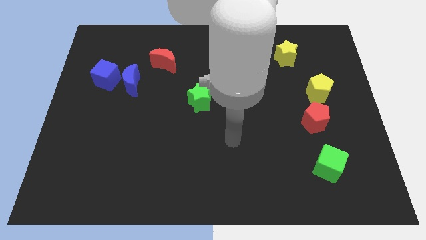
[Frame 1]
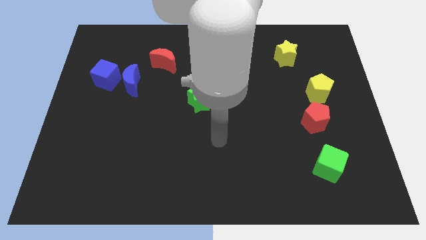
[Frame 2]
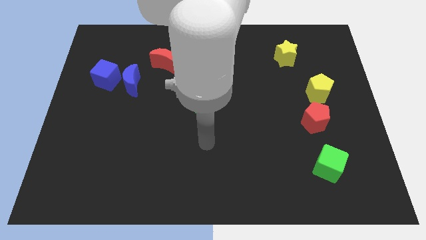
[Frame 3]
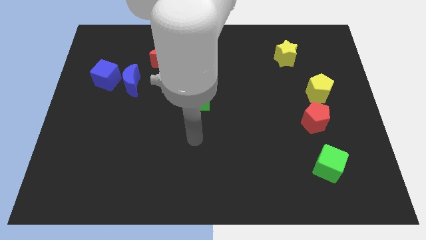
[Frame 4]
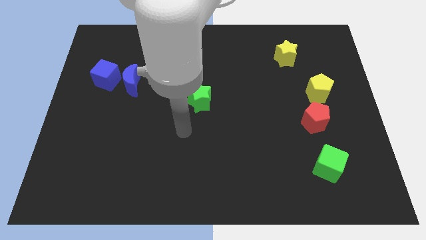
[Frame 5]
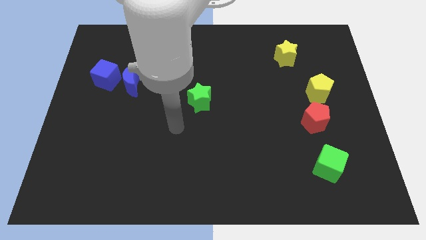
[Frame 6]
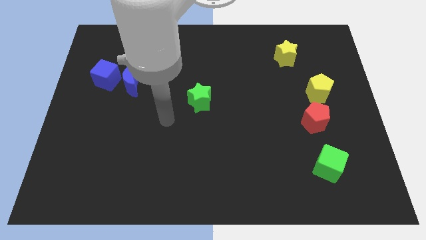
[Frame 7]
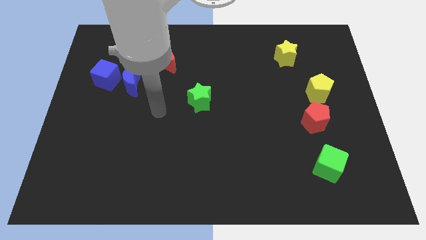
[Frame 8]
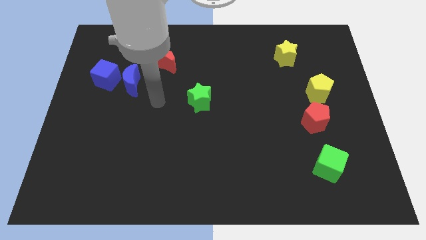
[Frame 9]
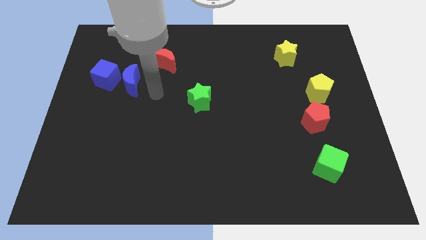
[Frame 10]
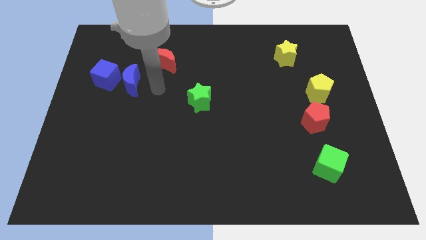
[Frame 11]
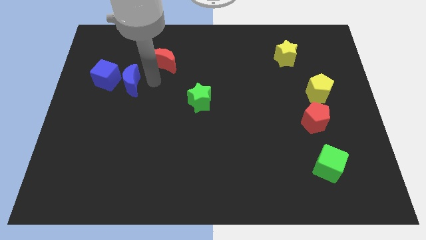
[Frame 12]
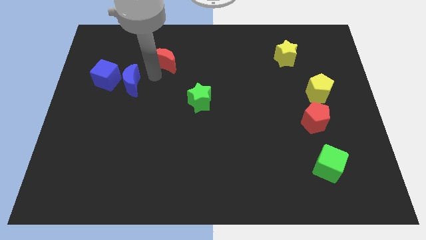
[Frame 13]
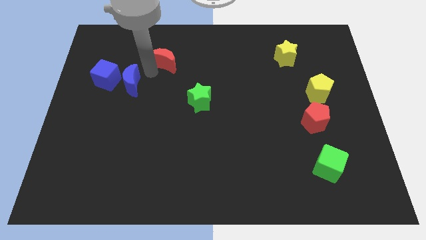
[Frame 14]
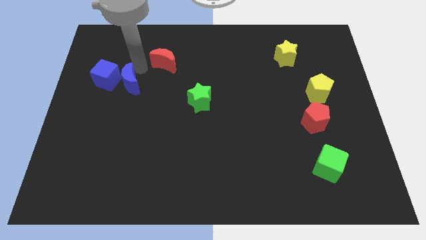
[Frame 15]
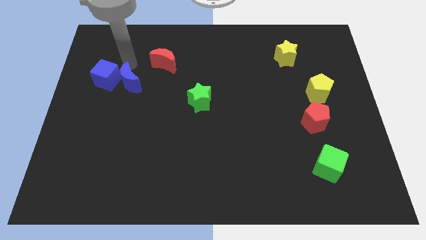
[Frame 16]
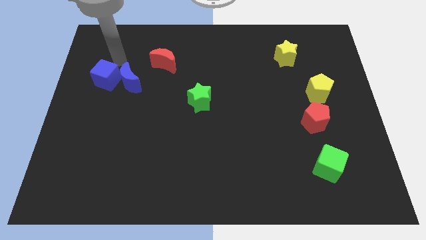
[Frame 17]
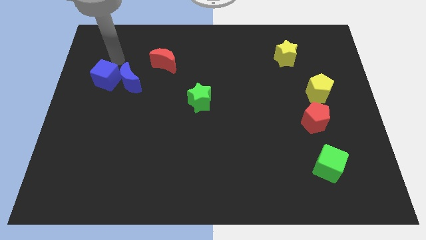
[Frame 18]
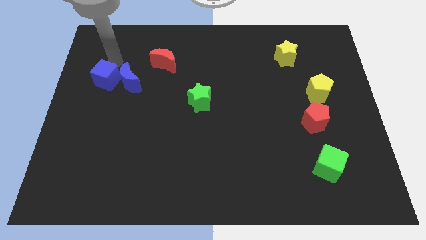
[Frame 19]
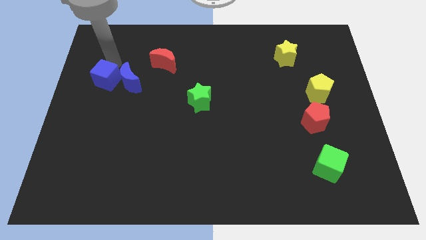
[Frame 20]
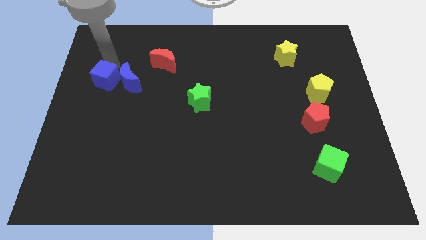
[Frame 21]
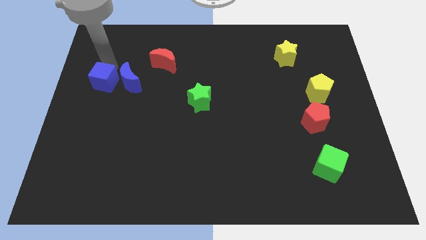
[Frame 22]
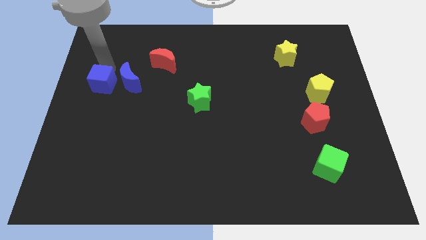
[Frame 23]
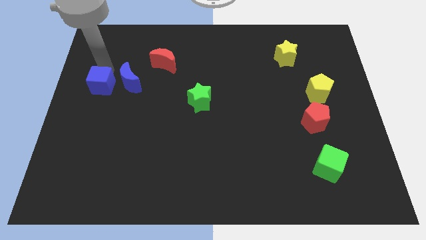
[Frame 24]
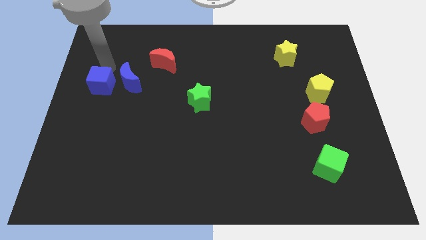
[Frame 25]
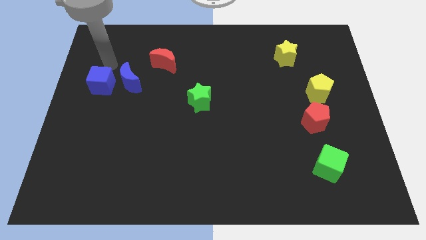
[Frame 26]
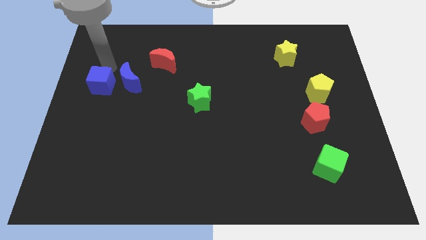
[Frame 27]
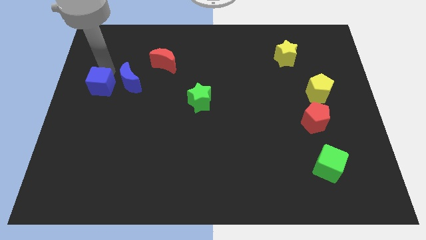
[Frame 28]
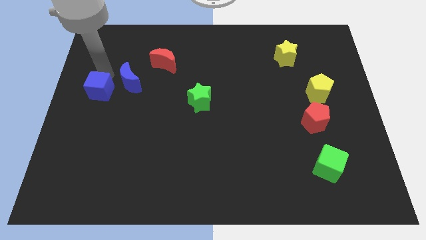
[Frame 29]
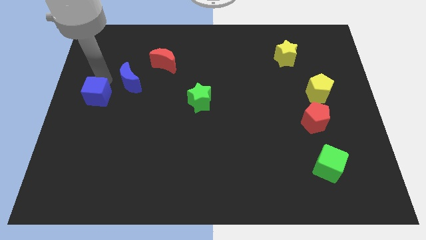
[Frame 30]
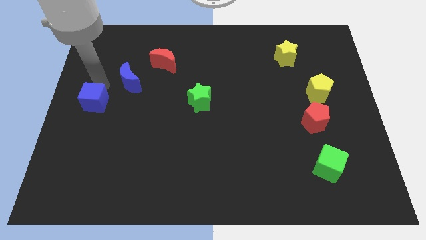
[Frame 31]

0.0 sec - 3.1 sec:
move the blue cube slightly down

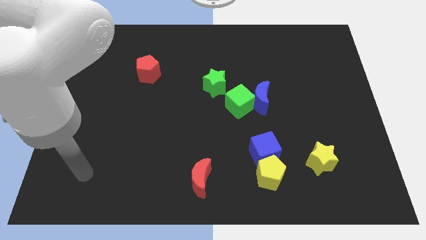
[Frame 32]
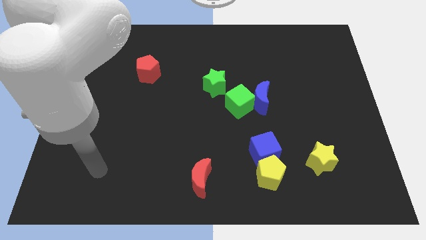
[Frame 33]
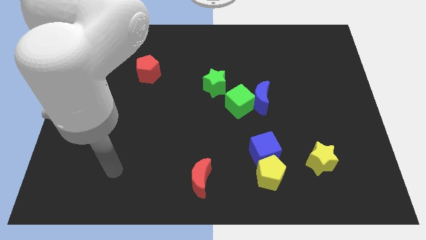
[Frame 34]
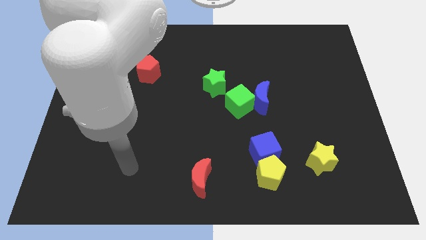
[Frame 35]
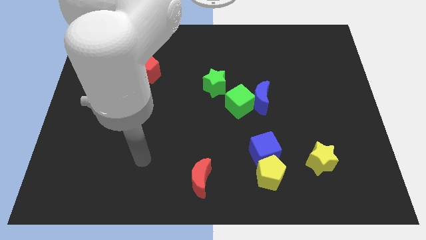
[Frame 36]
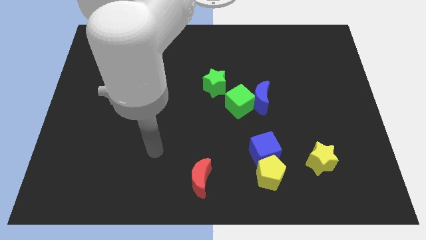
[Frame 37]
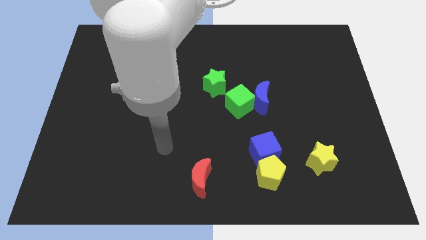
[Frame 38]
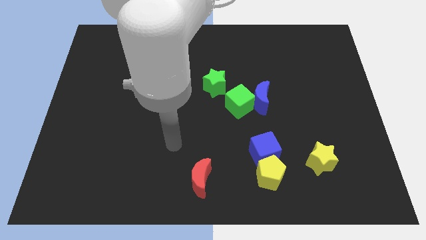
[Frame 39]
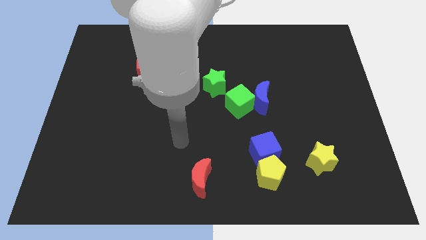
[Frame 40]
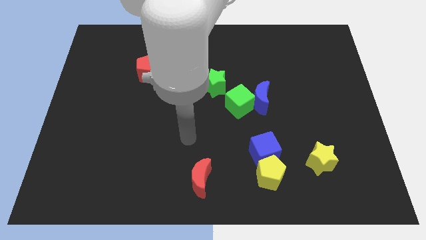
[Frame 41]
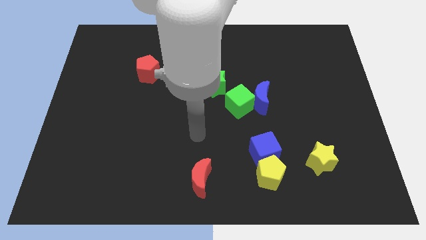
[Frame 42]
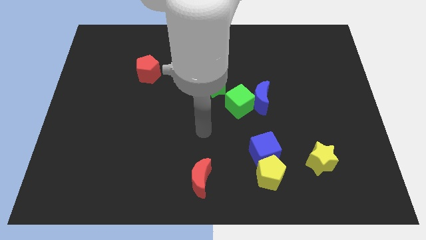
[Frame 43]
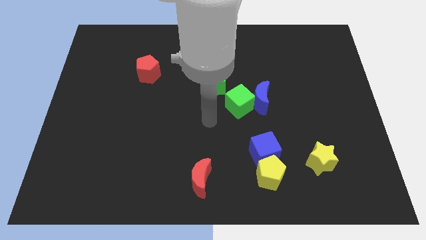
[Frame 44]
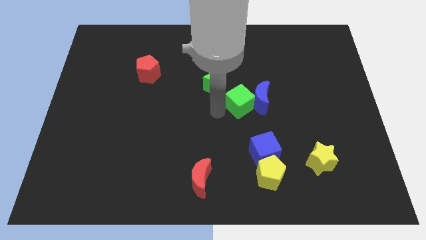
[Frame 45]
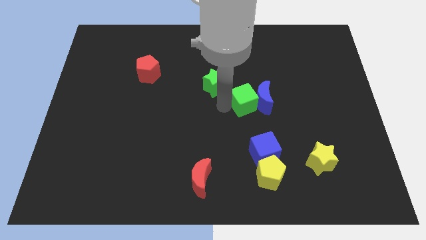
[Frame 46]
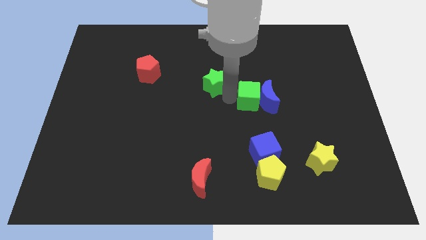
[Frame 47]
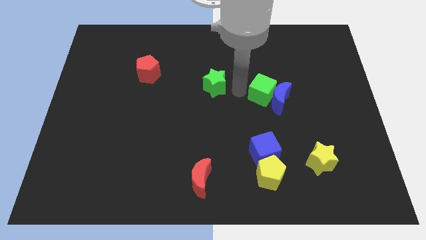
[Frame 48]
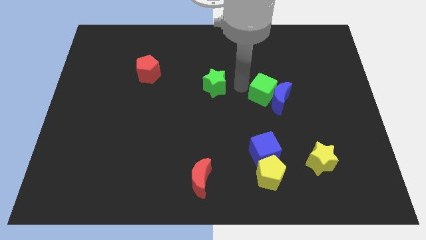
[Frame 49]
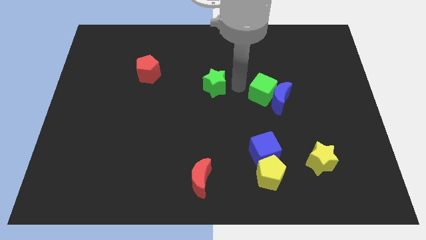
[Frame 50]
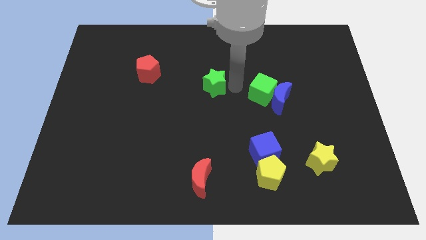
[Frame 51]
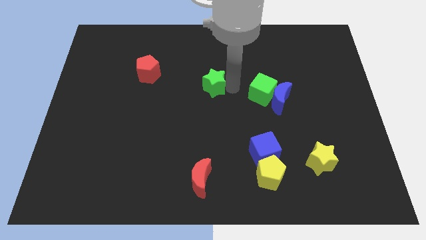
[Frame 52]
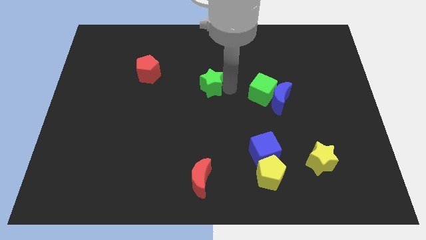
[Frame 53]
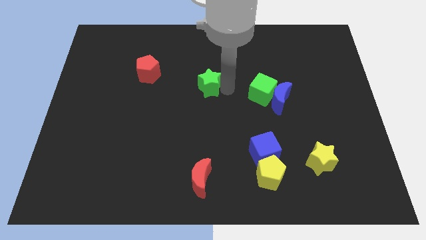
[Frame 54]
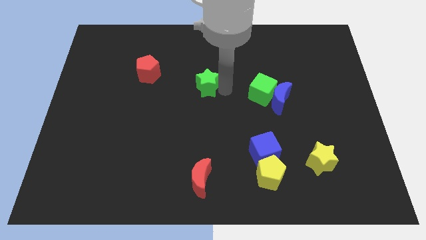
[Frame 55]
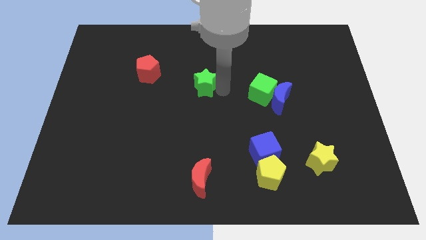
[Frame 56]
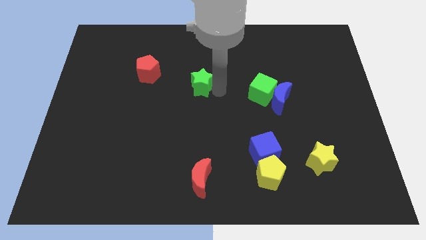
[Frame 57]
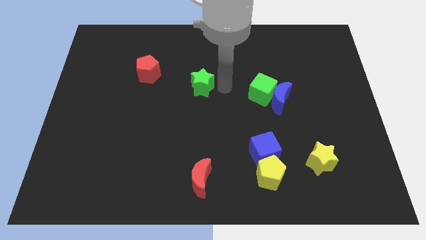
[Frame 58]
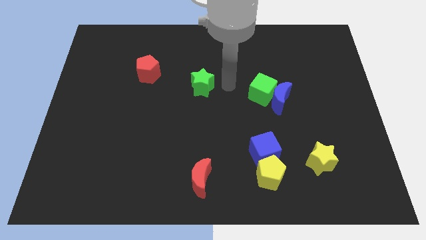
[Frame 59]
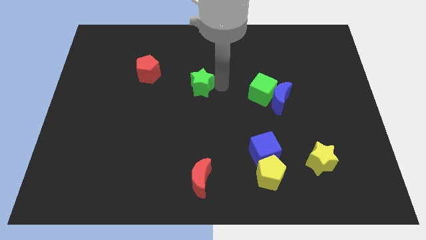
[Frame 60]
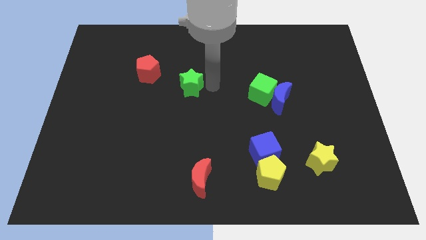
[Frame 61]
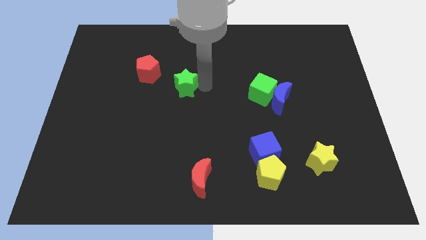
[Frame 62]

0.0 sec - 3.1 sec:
slightly slide the green star to the left

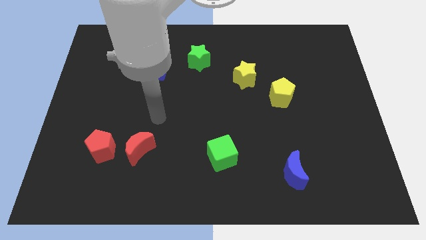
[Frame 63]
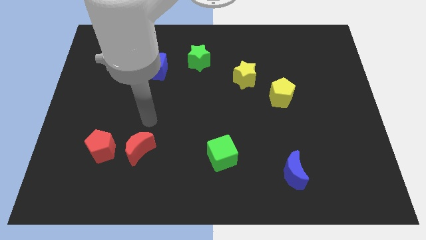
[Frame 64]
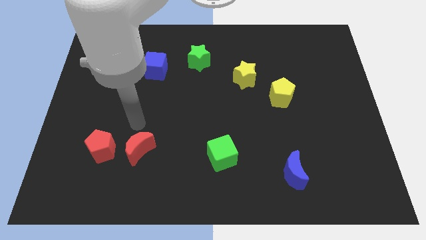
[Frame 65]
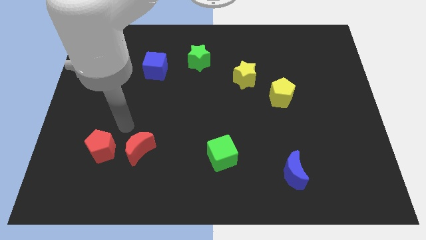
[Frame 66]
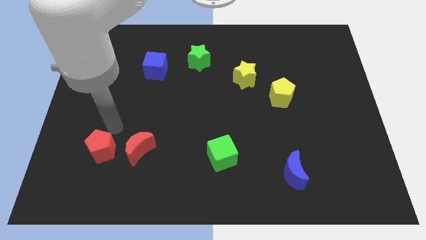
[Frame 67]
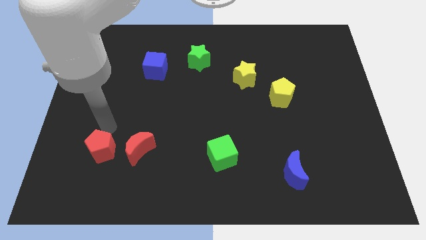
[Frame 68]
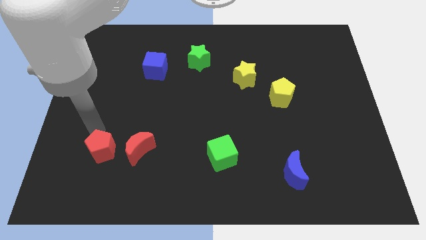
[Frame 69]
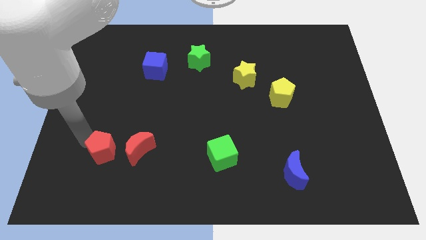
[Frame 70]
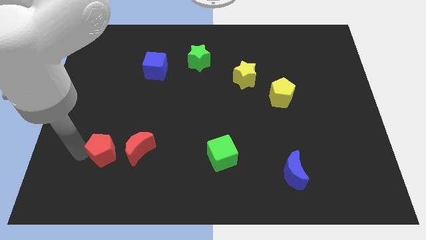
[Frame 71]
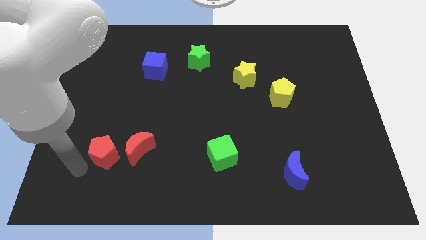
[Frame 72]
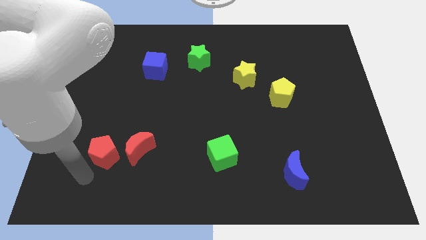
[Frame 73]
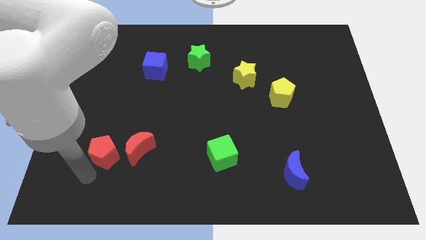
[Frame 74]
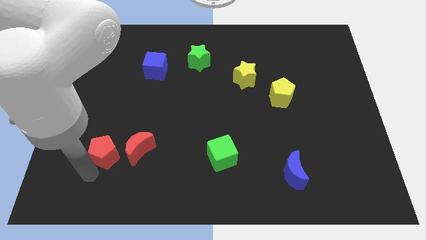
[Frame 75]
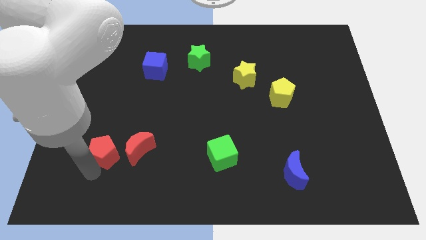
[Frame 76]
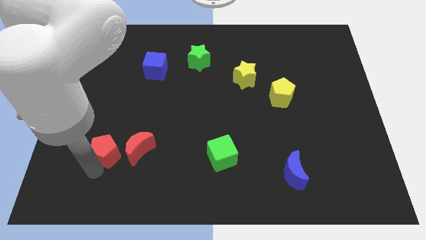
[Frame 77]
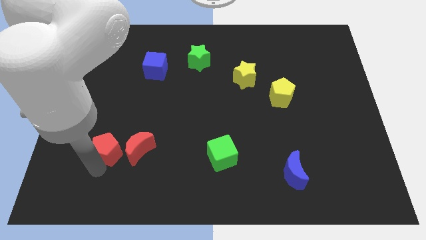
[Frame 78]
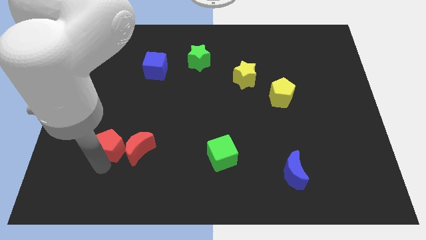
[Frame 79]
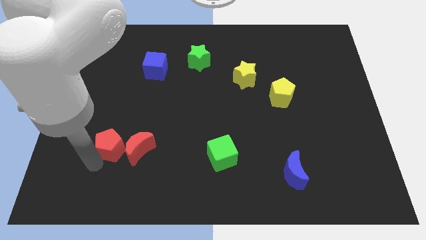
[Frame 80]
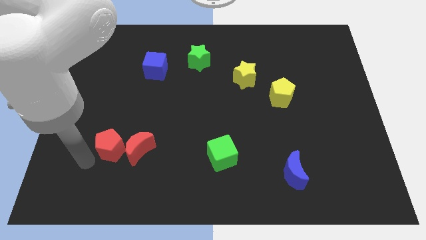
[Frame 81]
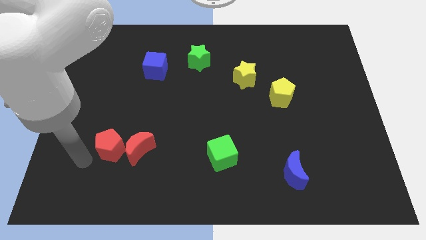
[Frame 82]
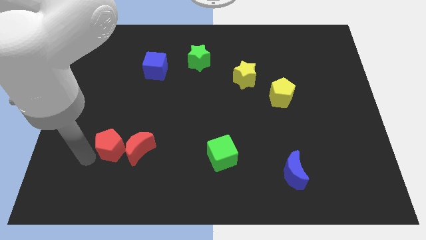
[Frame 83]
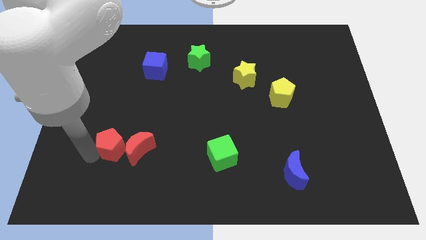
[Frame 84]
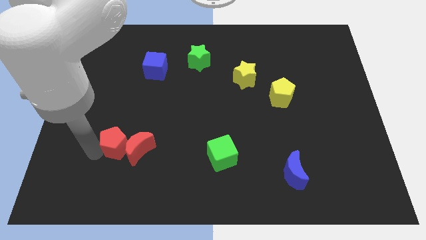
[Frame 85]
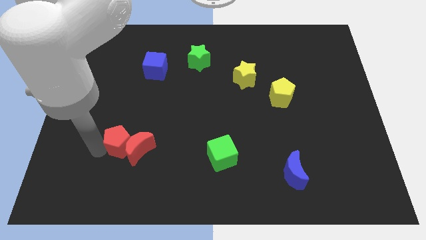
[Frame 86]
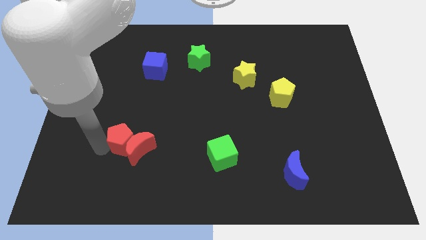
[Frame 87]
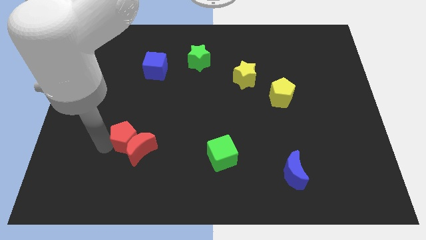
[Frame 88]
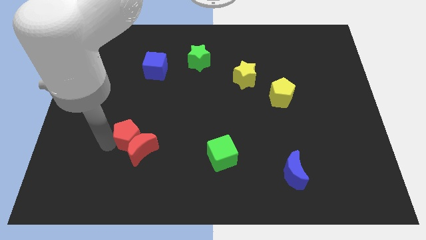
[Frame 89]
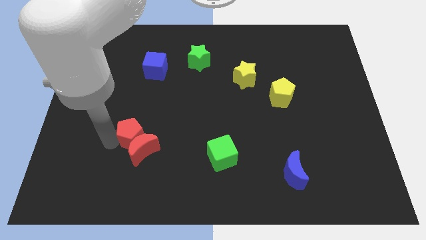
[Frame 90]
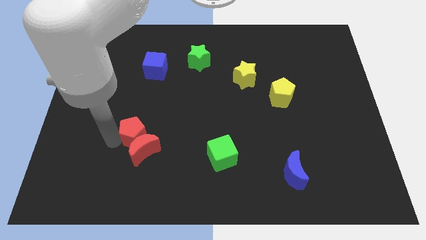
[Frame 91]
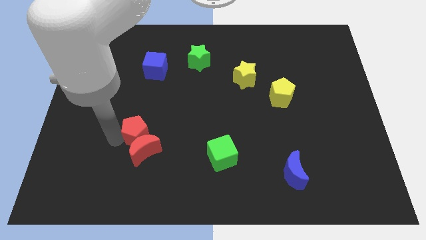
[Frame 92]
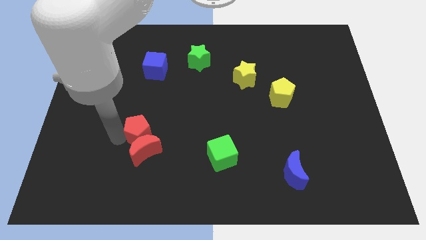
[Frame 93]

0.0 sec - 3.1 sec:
slightly push the red pentagon right
